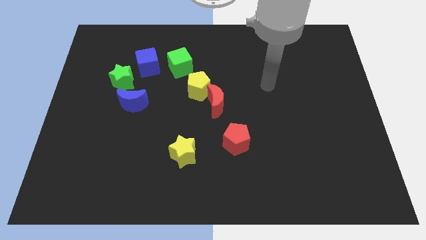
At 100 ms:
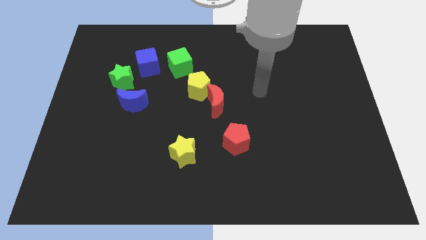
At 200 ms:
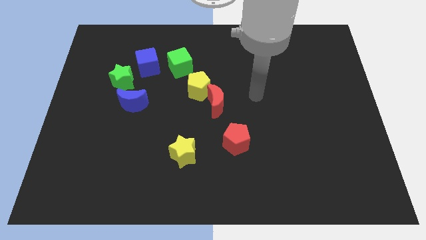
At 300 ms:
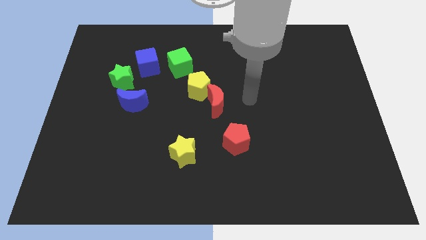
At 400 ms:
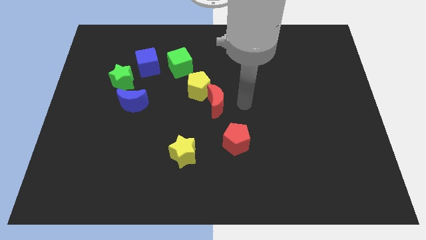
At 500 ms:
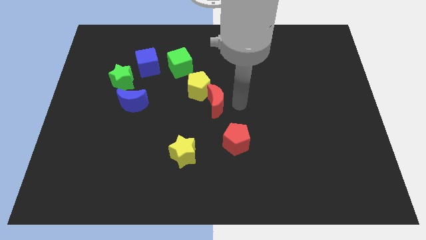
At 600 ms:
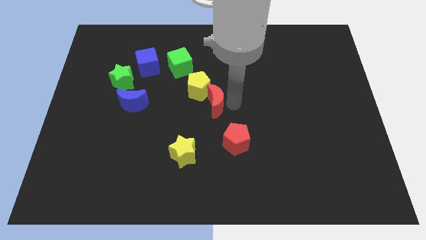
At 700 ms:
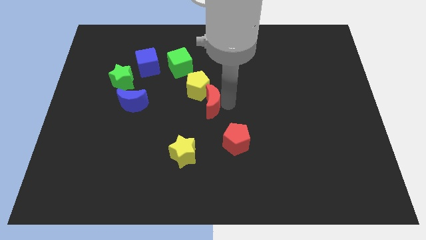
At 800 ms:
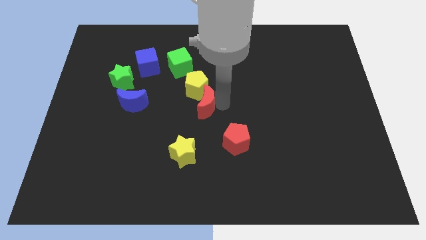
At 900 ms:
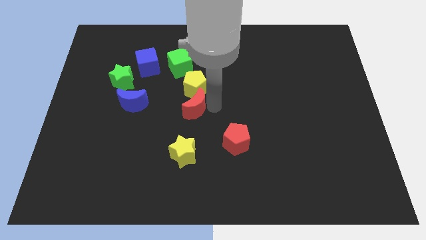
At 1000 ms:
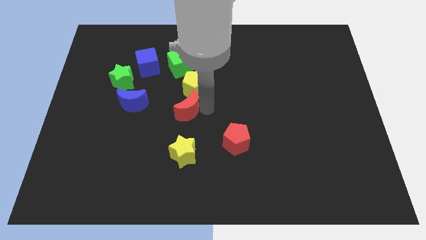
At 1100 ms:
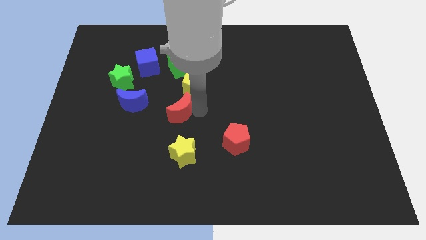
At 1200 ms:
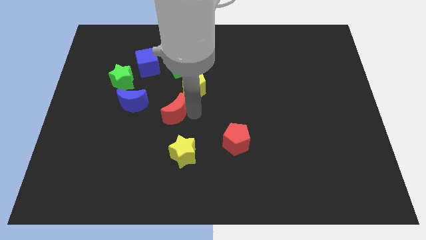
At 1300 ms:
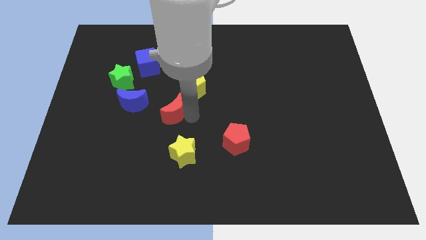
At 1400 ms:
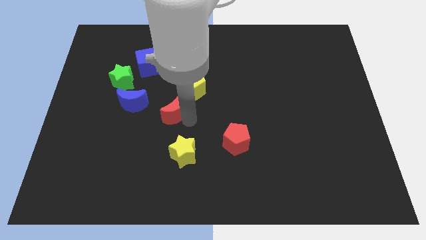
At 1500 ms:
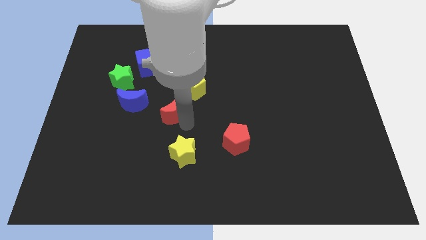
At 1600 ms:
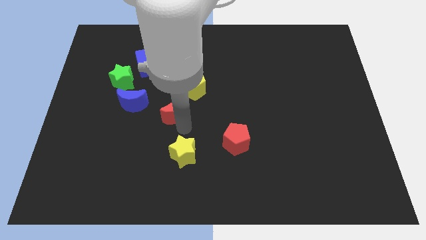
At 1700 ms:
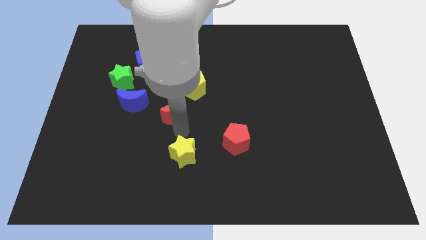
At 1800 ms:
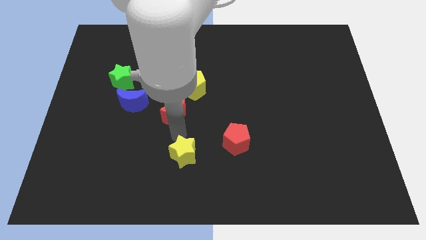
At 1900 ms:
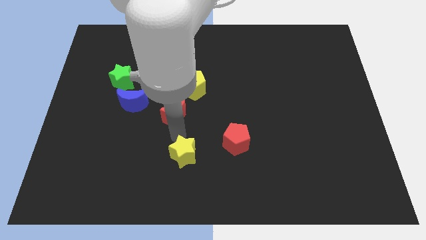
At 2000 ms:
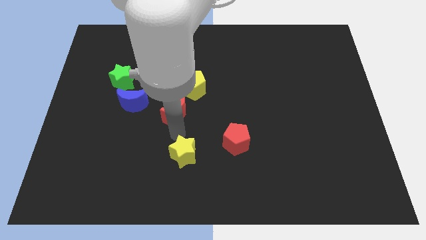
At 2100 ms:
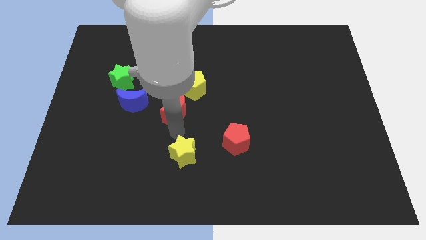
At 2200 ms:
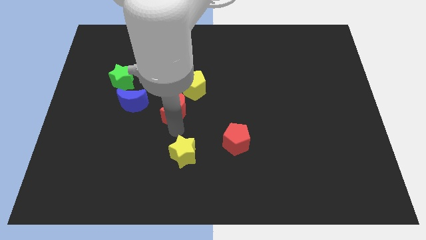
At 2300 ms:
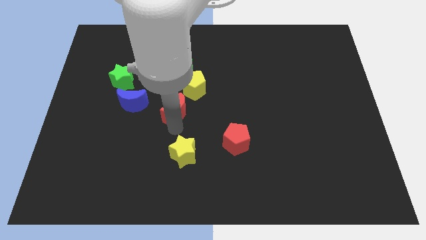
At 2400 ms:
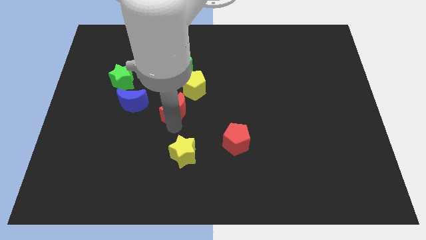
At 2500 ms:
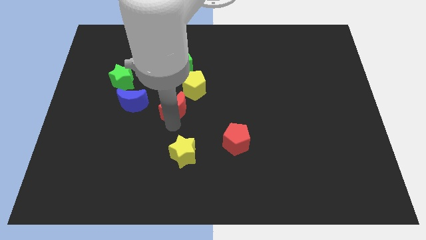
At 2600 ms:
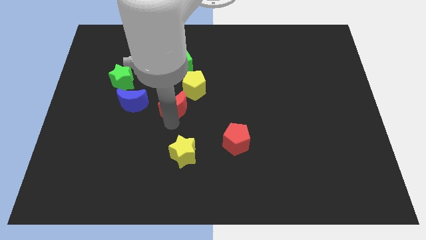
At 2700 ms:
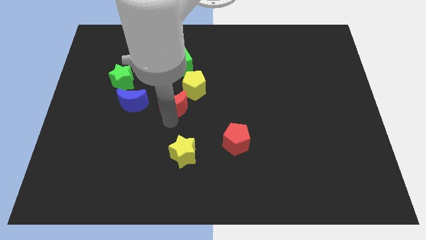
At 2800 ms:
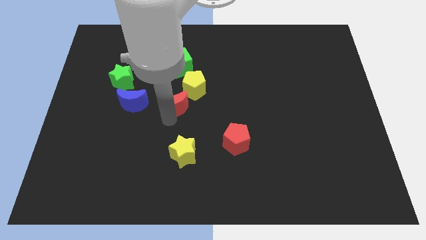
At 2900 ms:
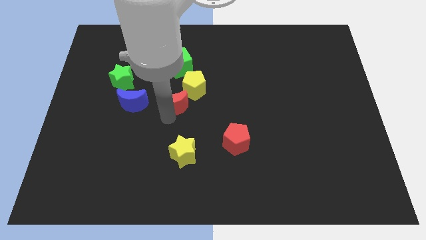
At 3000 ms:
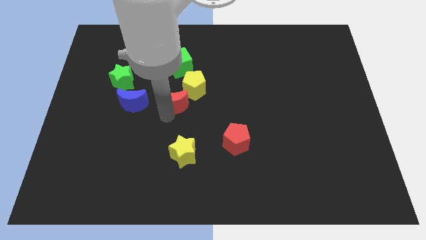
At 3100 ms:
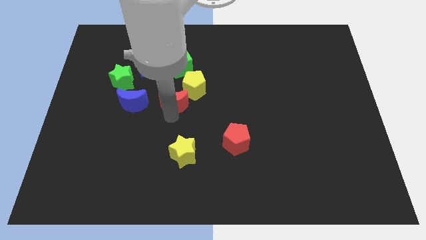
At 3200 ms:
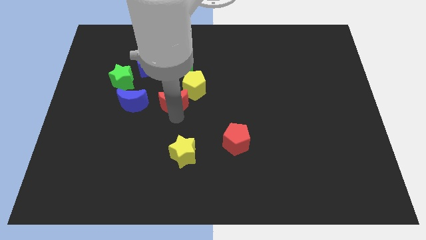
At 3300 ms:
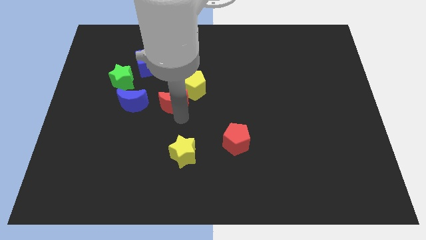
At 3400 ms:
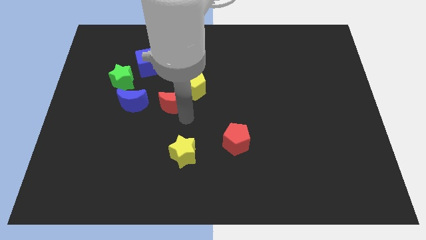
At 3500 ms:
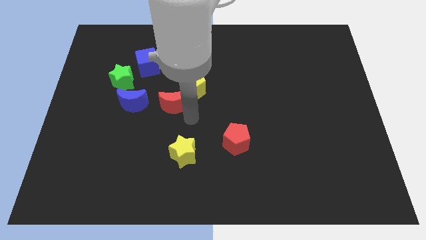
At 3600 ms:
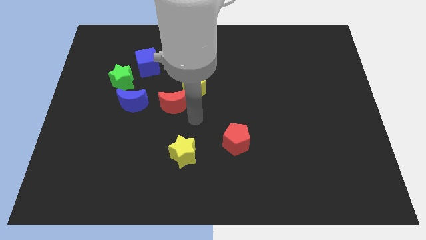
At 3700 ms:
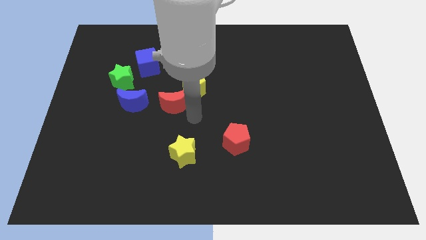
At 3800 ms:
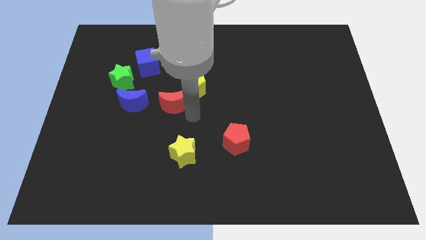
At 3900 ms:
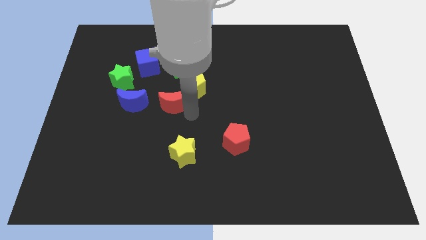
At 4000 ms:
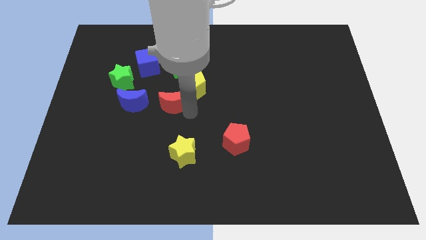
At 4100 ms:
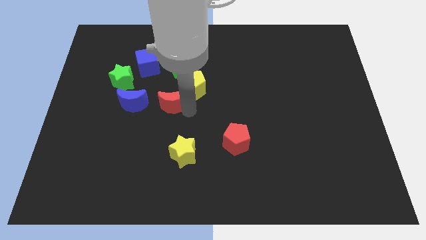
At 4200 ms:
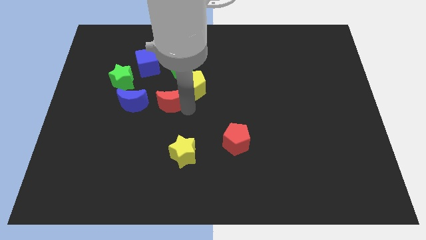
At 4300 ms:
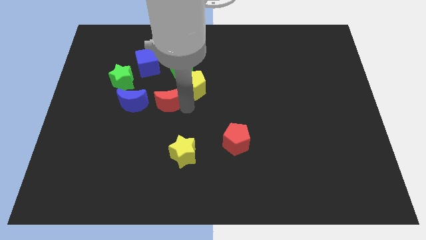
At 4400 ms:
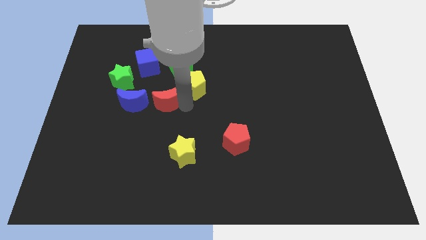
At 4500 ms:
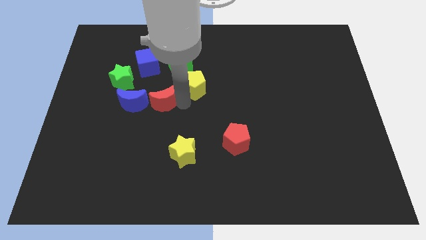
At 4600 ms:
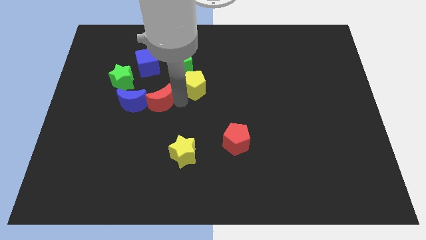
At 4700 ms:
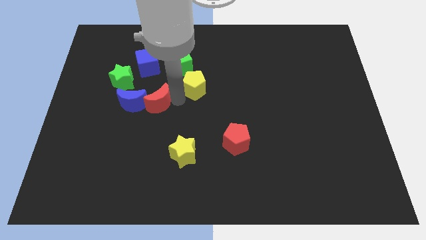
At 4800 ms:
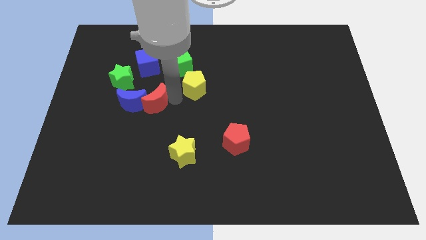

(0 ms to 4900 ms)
move the red moon next to the blue moon

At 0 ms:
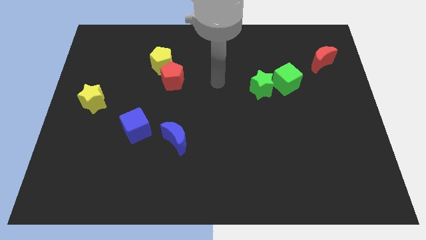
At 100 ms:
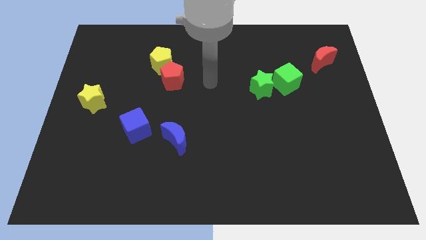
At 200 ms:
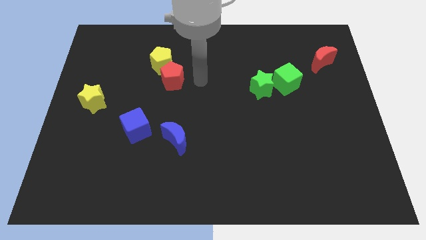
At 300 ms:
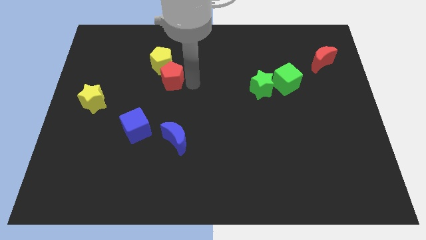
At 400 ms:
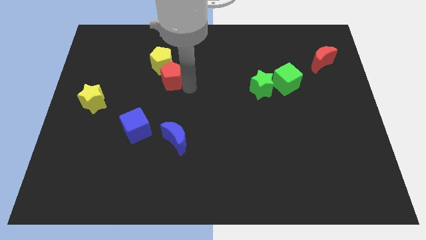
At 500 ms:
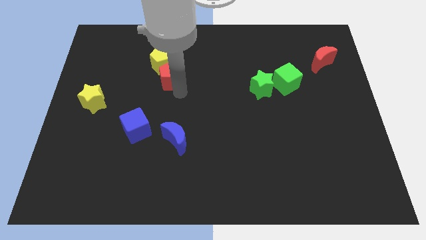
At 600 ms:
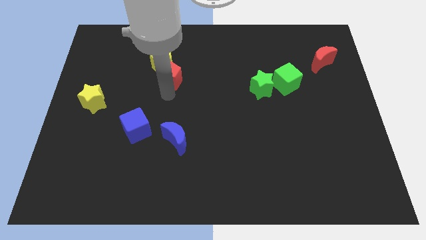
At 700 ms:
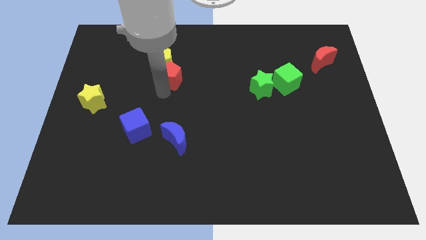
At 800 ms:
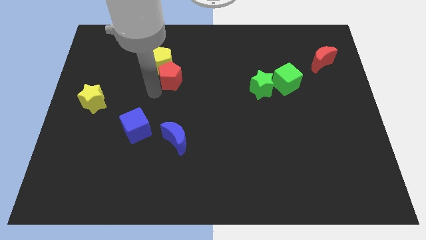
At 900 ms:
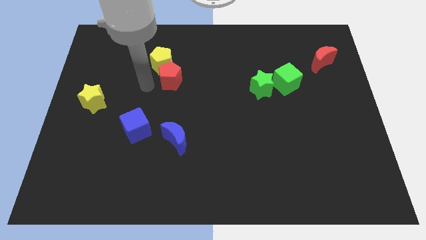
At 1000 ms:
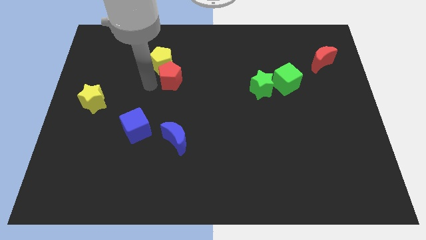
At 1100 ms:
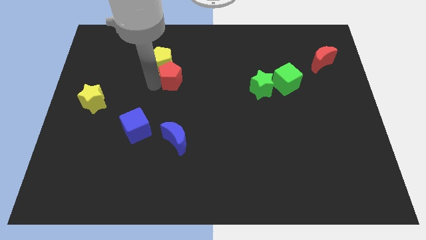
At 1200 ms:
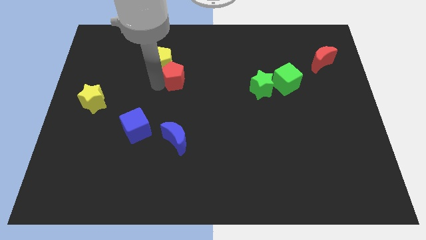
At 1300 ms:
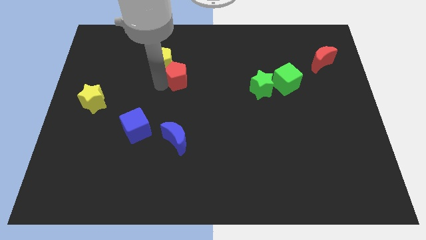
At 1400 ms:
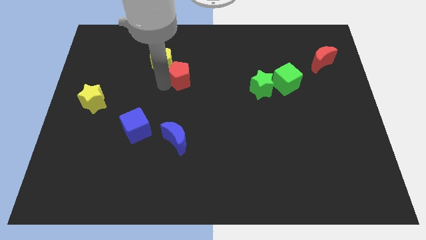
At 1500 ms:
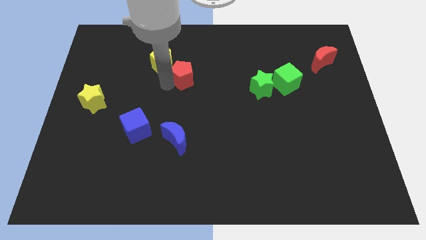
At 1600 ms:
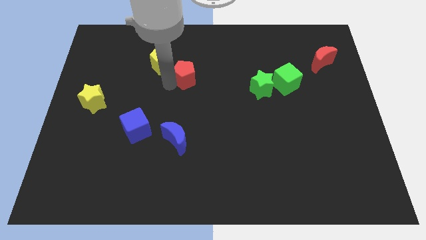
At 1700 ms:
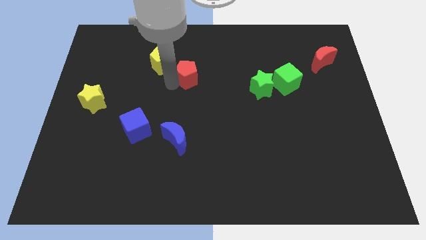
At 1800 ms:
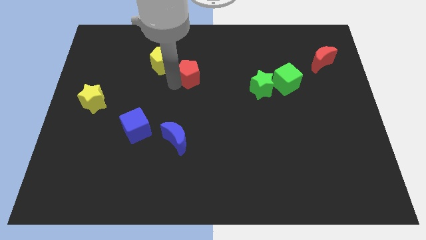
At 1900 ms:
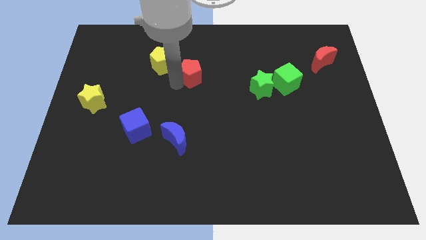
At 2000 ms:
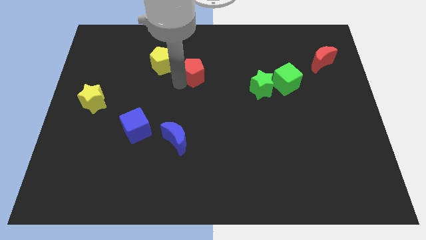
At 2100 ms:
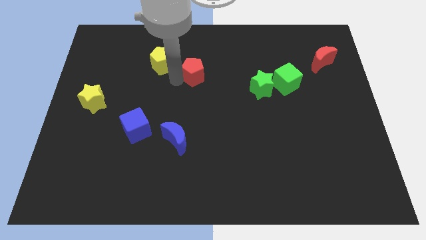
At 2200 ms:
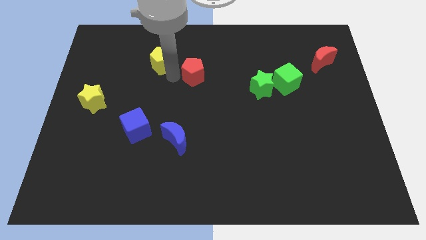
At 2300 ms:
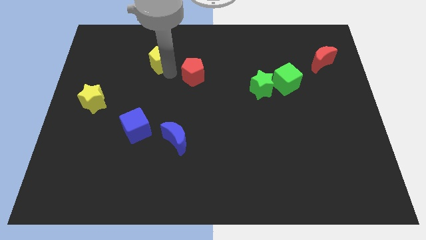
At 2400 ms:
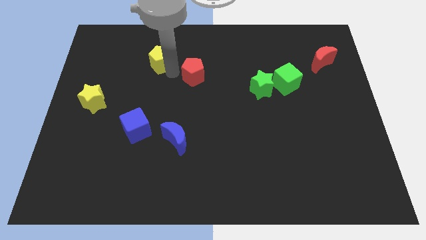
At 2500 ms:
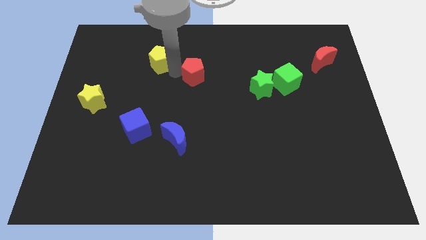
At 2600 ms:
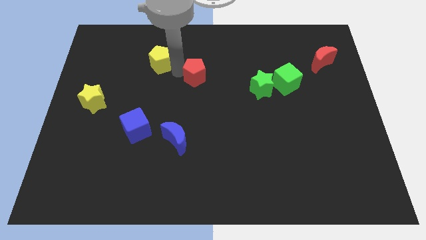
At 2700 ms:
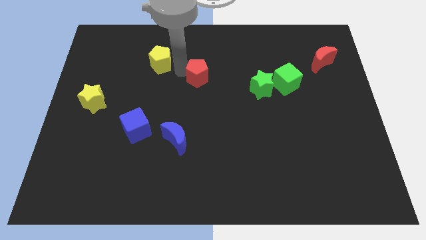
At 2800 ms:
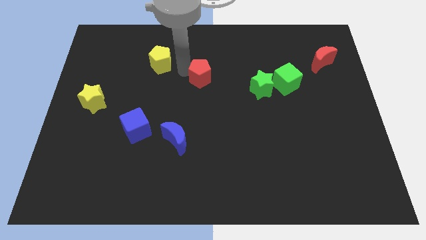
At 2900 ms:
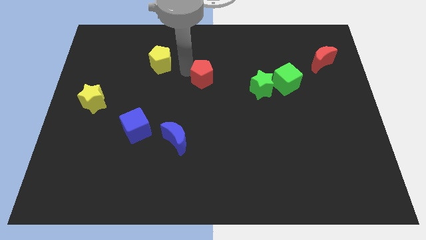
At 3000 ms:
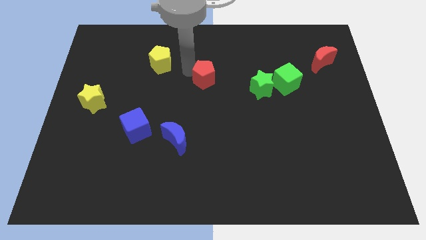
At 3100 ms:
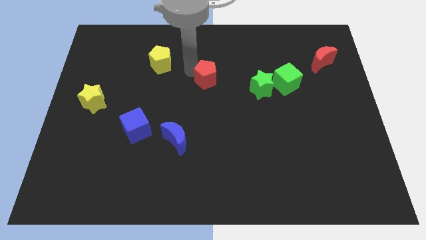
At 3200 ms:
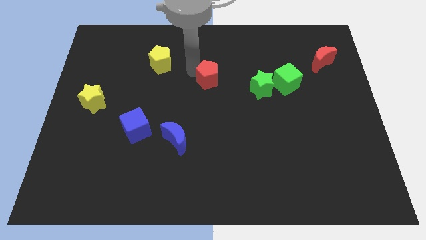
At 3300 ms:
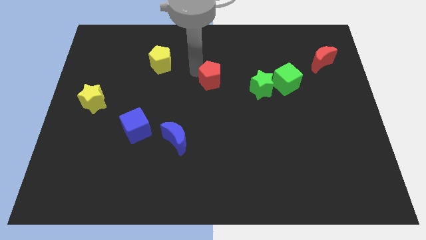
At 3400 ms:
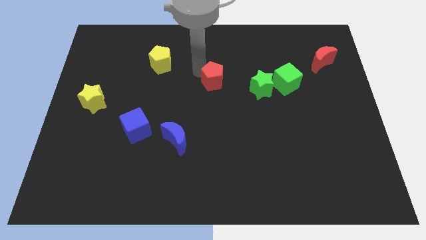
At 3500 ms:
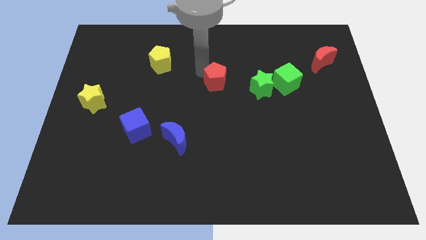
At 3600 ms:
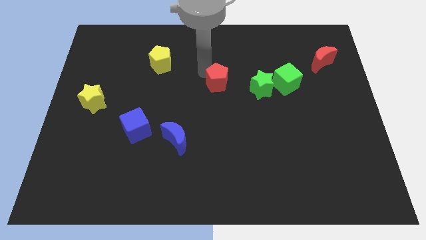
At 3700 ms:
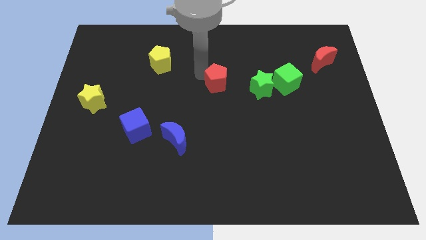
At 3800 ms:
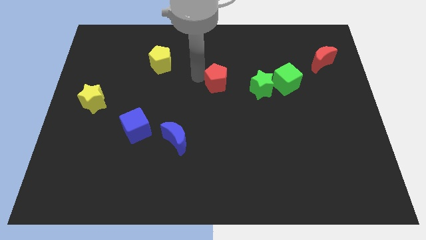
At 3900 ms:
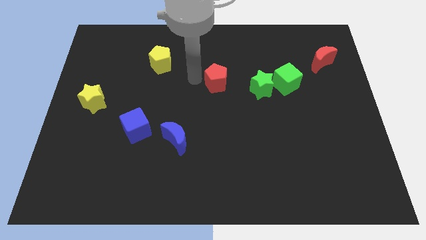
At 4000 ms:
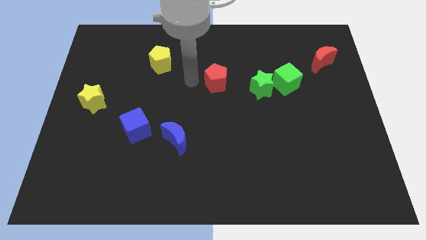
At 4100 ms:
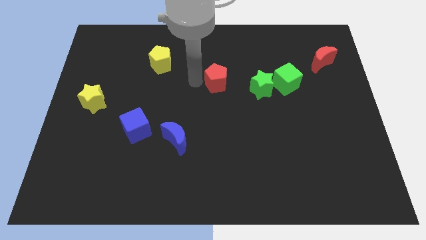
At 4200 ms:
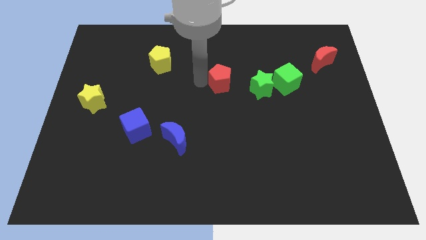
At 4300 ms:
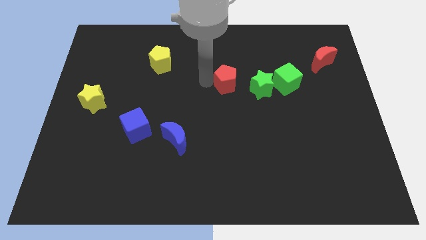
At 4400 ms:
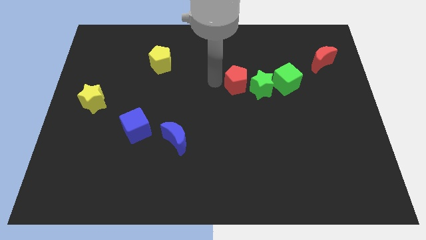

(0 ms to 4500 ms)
push the red pentagon to the green star
